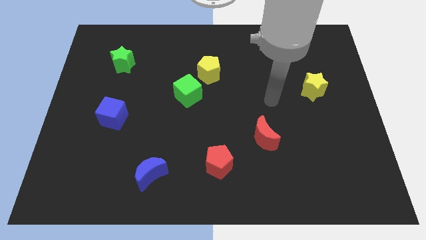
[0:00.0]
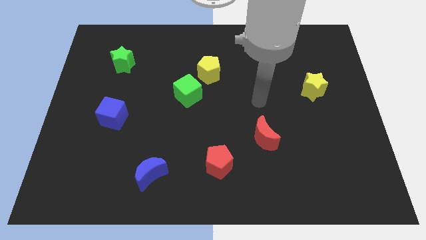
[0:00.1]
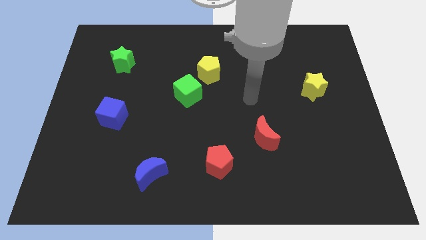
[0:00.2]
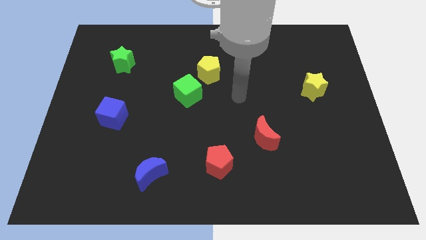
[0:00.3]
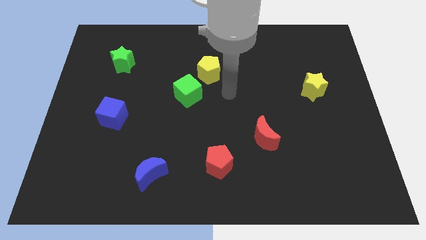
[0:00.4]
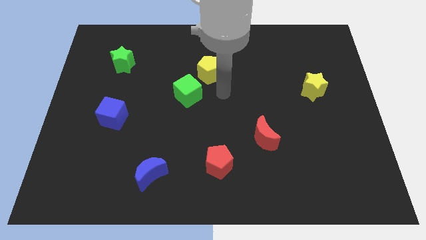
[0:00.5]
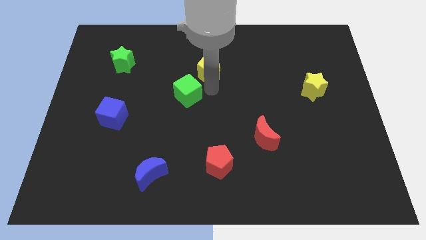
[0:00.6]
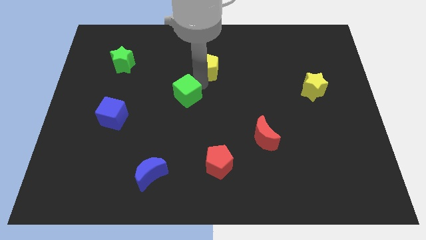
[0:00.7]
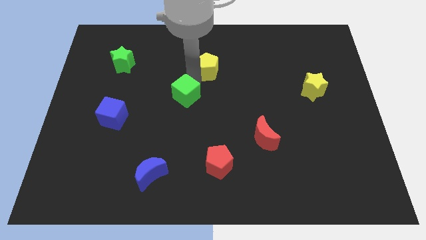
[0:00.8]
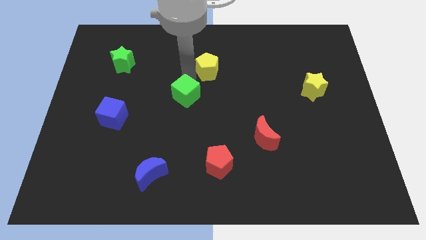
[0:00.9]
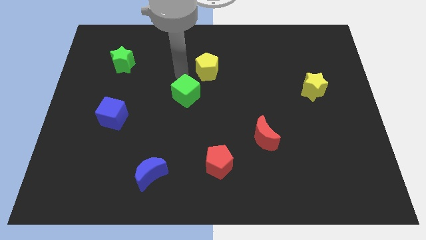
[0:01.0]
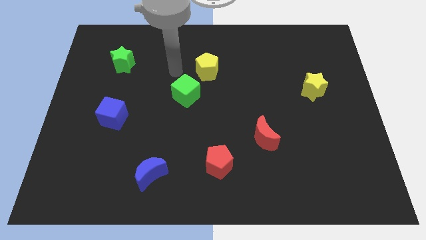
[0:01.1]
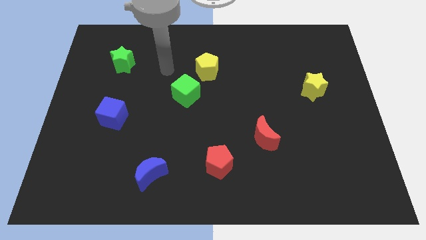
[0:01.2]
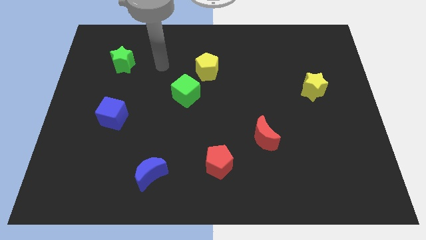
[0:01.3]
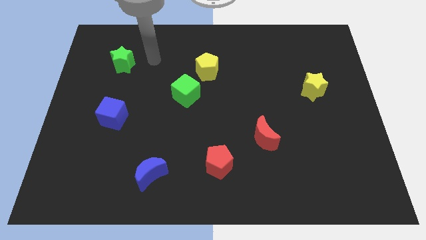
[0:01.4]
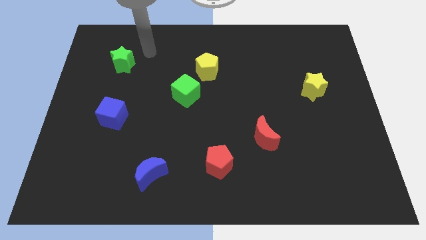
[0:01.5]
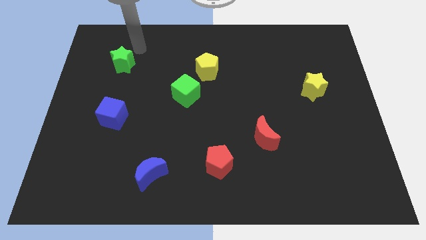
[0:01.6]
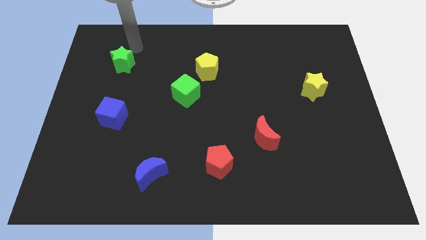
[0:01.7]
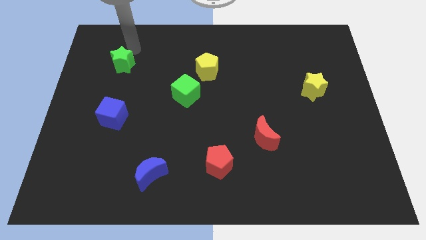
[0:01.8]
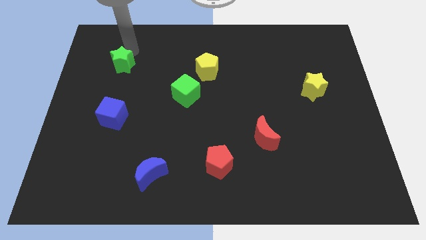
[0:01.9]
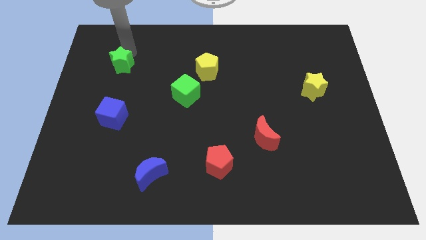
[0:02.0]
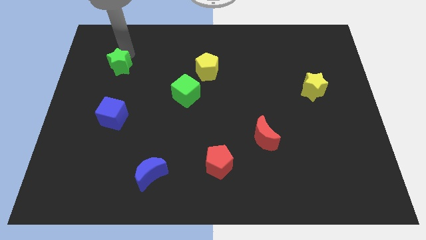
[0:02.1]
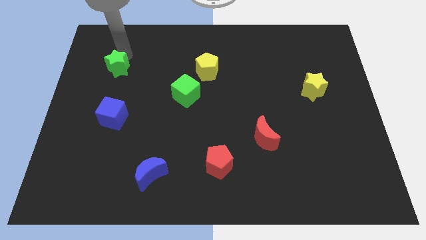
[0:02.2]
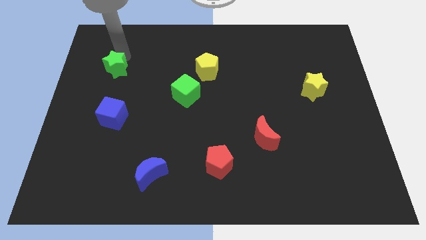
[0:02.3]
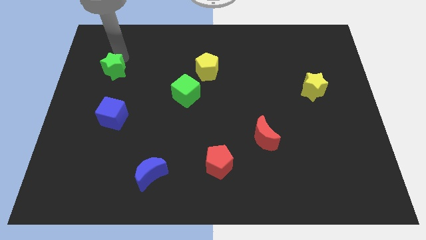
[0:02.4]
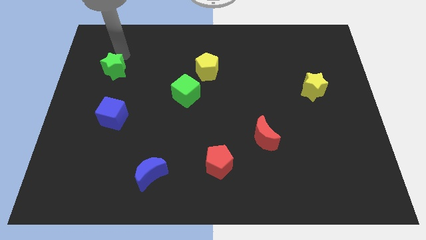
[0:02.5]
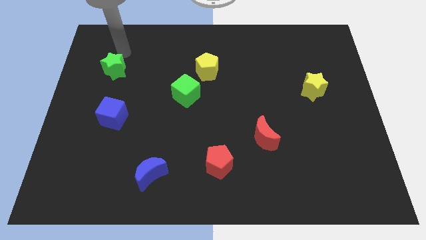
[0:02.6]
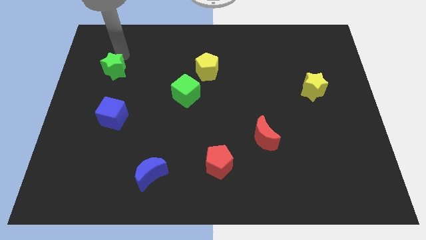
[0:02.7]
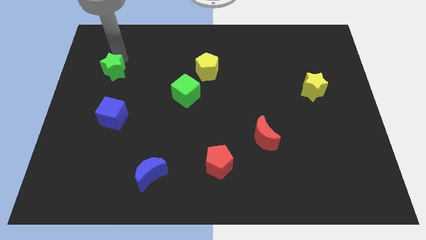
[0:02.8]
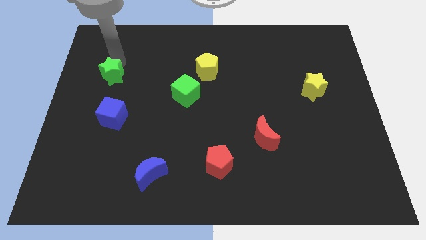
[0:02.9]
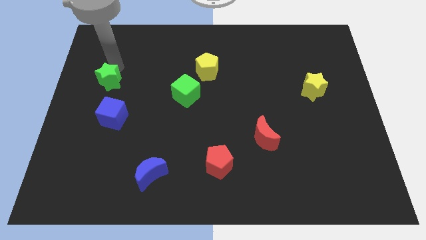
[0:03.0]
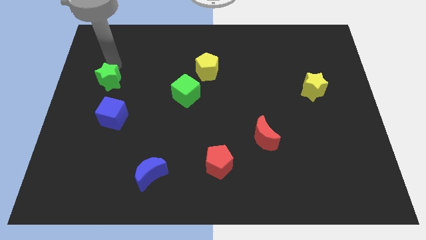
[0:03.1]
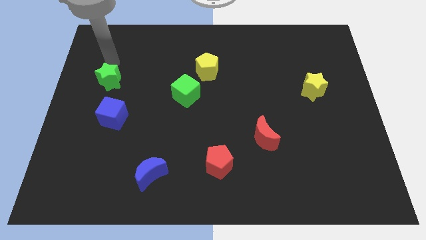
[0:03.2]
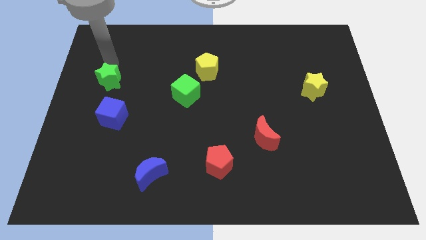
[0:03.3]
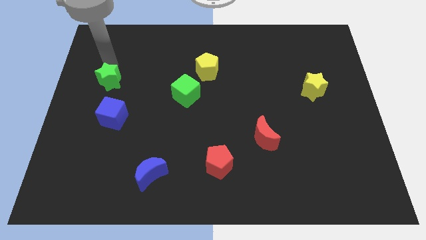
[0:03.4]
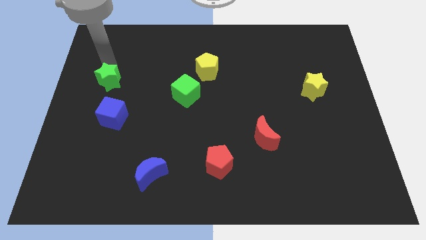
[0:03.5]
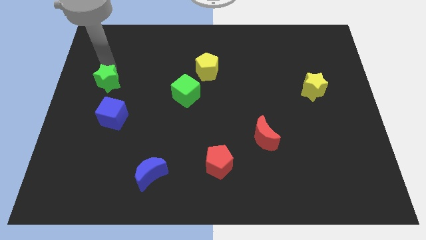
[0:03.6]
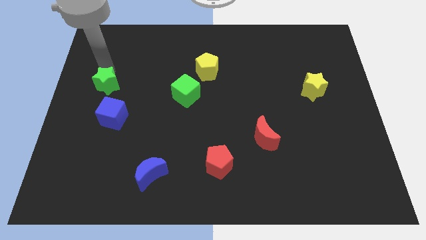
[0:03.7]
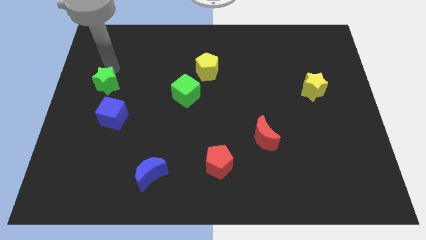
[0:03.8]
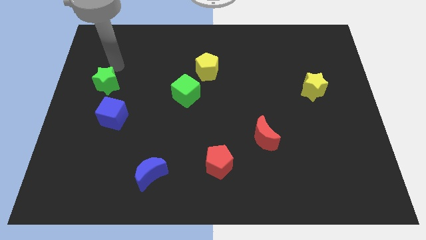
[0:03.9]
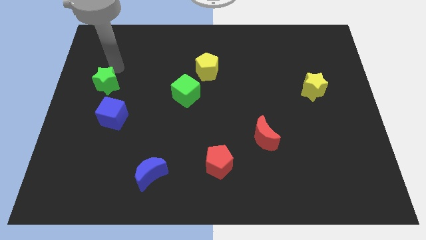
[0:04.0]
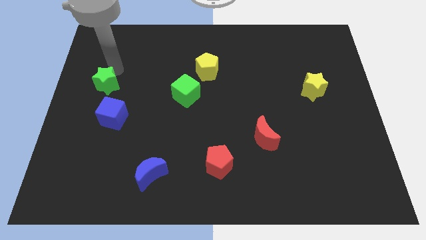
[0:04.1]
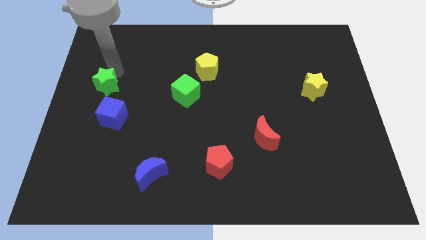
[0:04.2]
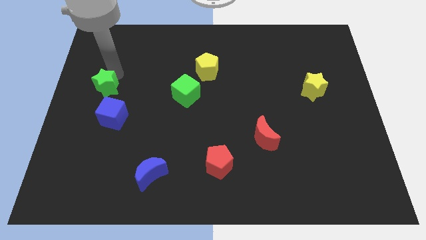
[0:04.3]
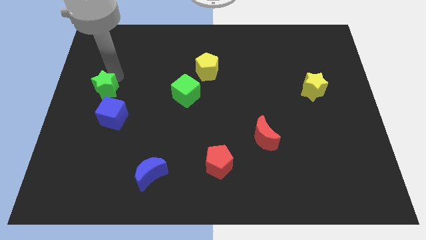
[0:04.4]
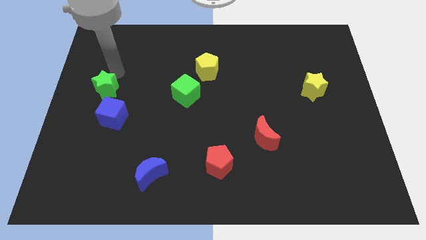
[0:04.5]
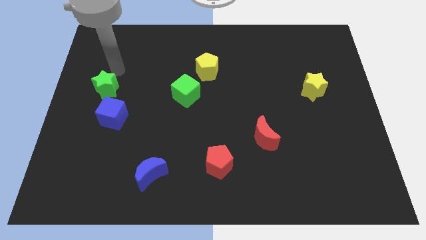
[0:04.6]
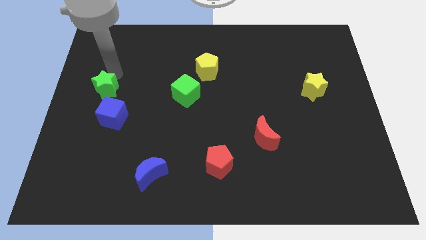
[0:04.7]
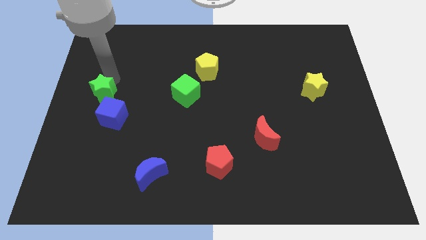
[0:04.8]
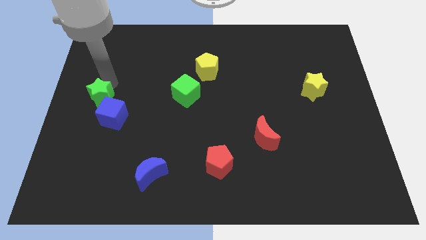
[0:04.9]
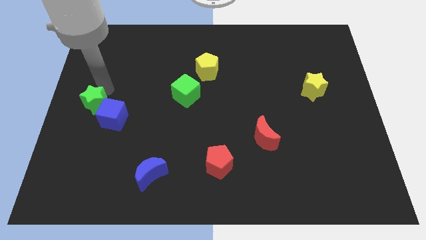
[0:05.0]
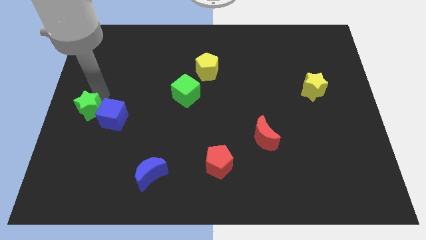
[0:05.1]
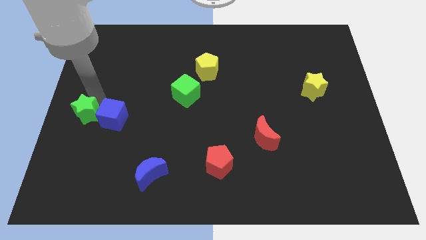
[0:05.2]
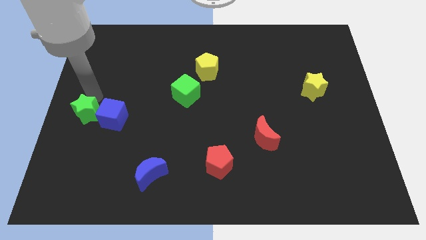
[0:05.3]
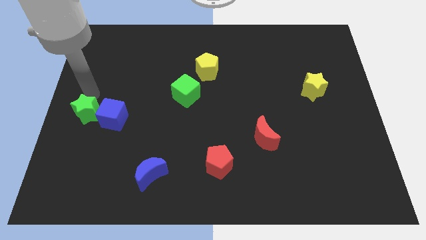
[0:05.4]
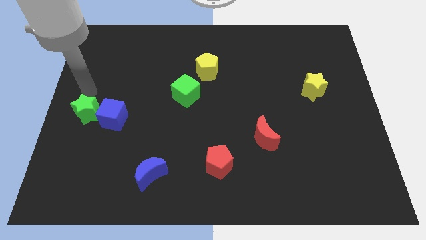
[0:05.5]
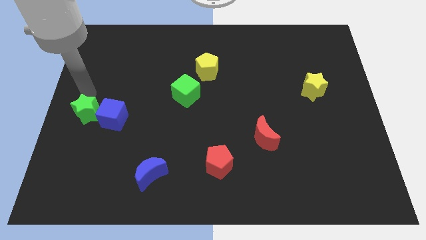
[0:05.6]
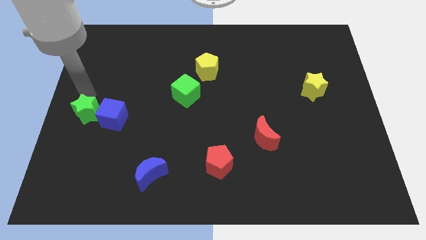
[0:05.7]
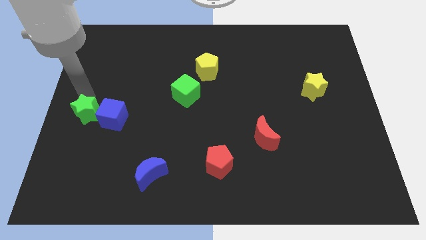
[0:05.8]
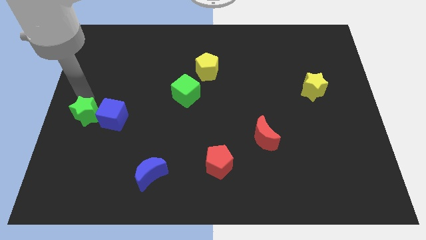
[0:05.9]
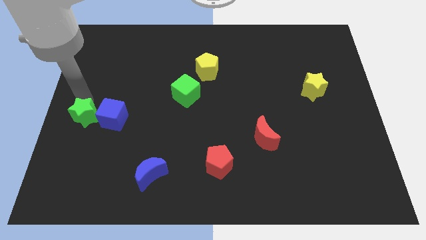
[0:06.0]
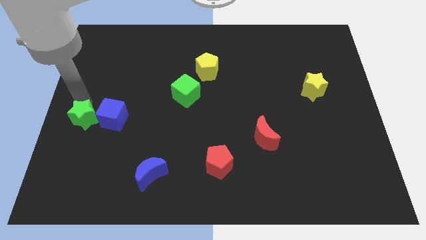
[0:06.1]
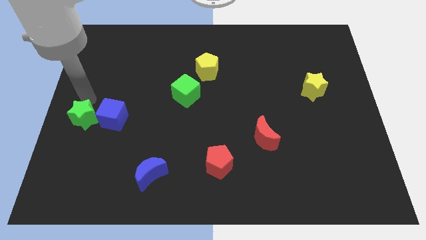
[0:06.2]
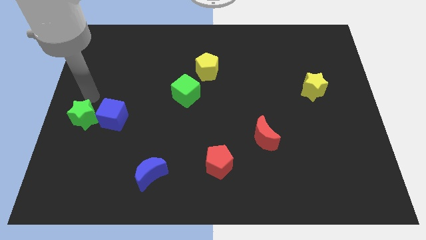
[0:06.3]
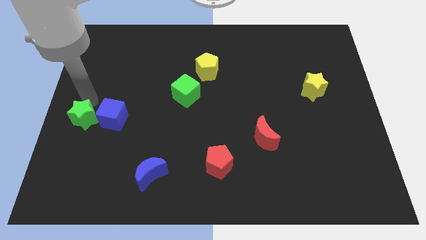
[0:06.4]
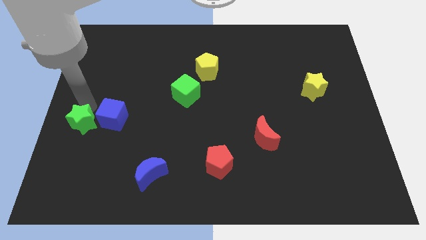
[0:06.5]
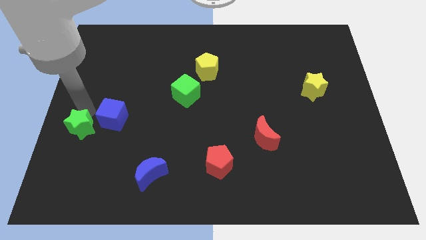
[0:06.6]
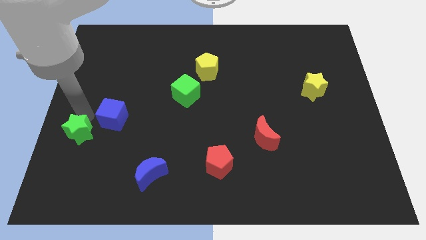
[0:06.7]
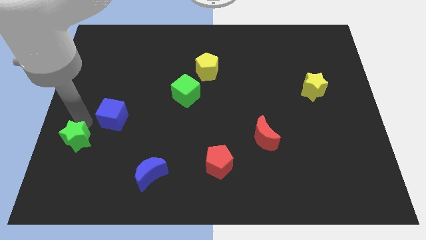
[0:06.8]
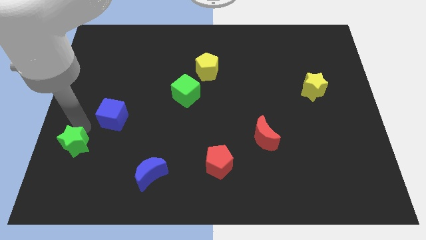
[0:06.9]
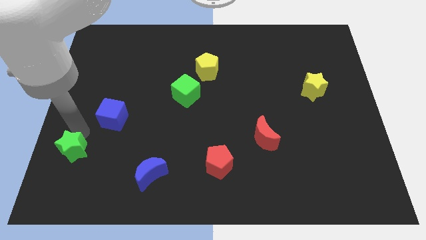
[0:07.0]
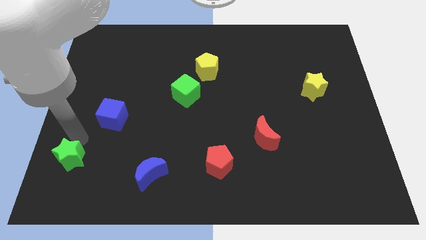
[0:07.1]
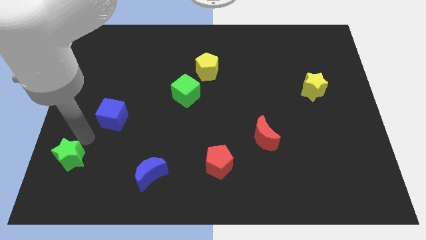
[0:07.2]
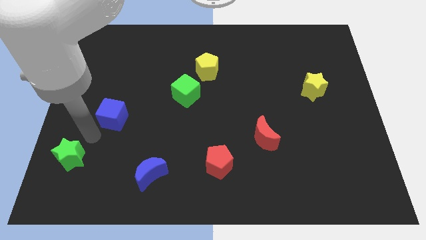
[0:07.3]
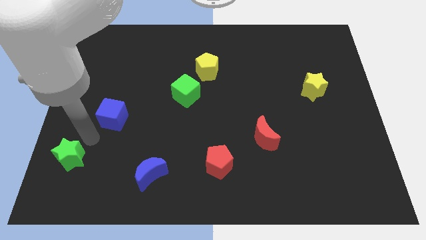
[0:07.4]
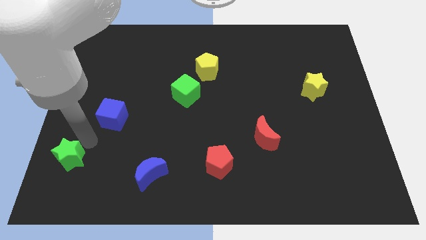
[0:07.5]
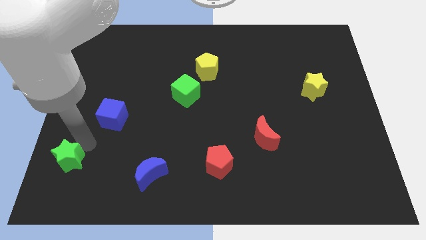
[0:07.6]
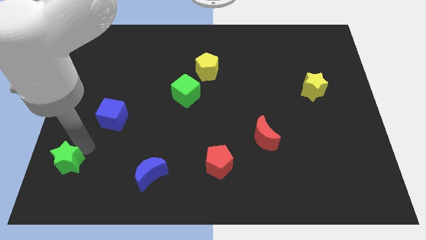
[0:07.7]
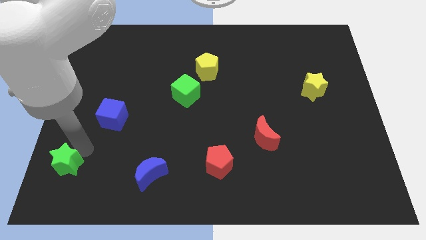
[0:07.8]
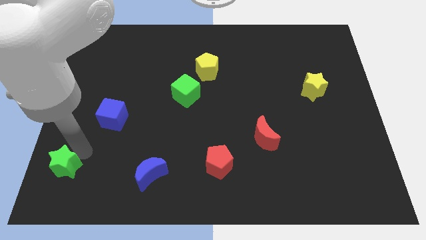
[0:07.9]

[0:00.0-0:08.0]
push the green star to the bottom left corner
